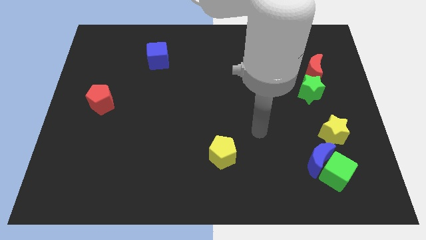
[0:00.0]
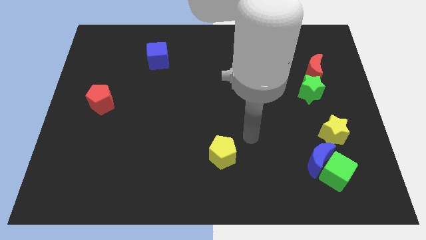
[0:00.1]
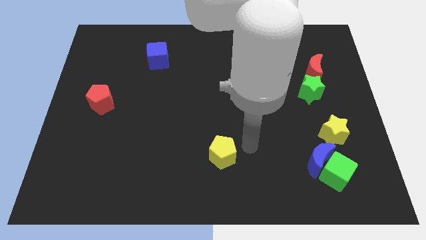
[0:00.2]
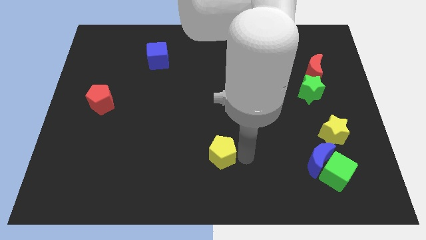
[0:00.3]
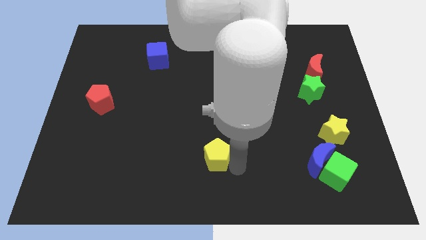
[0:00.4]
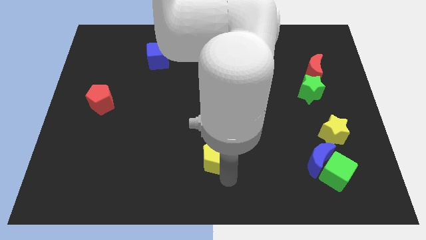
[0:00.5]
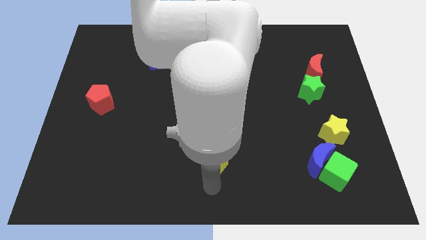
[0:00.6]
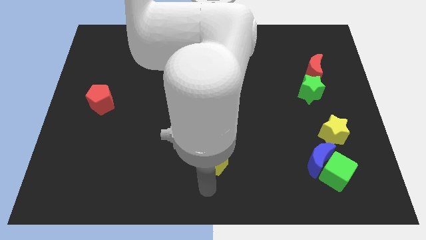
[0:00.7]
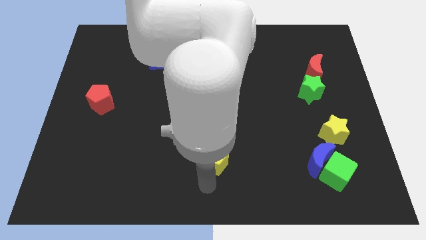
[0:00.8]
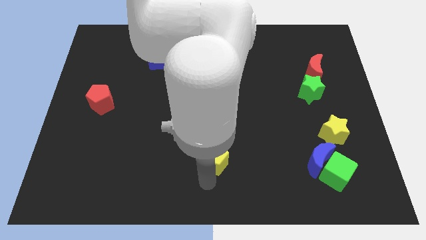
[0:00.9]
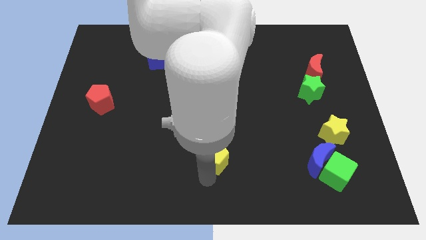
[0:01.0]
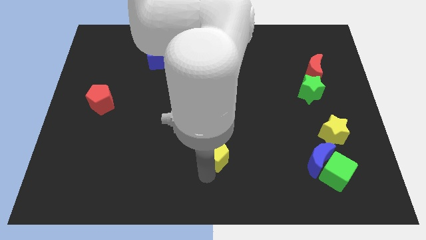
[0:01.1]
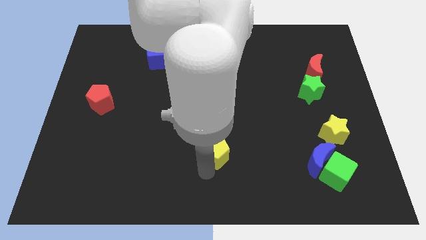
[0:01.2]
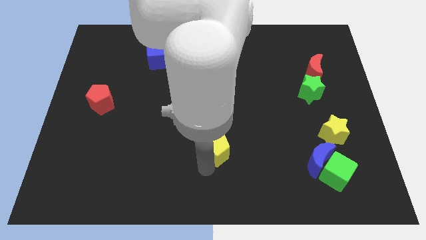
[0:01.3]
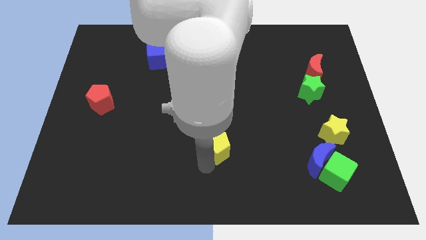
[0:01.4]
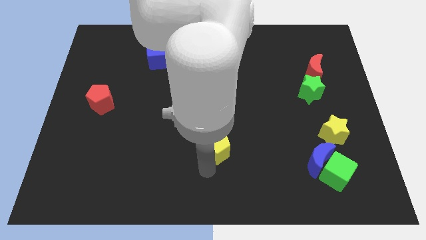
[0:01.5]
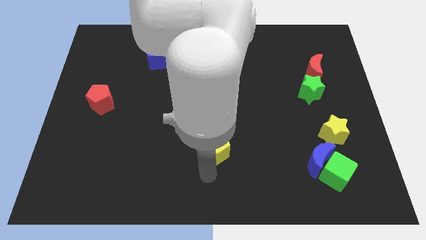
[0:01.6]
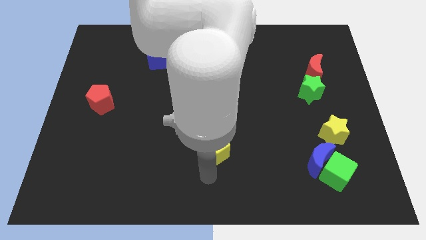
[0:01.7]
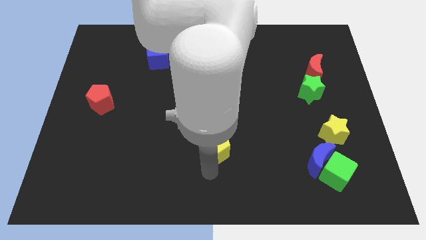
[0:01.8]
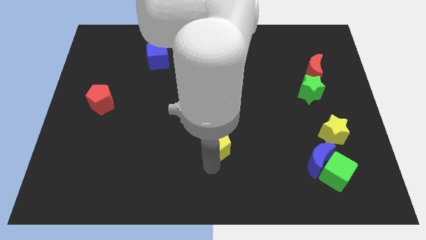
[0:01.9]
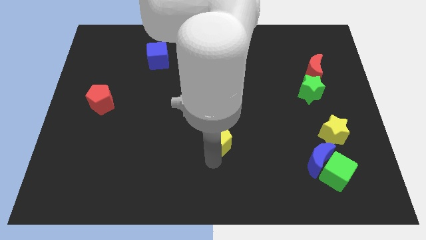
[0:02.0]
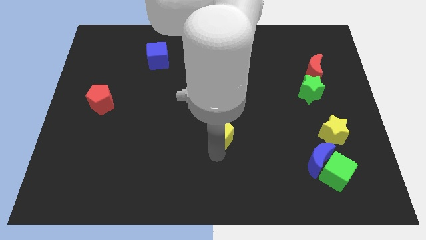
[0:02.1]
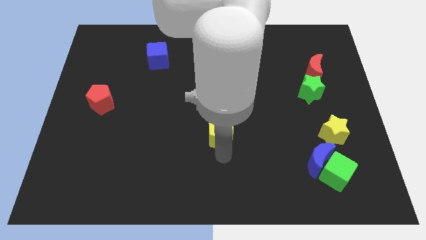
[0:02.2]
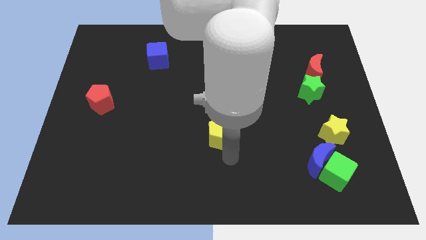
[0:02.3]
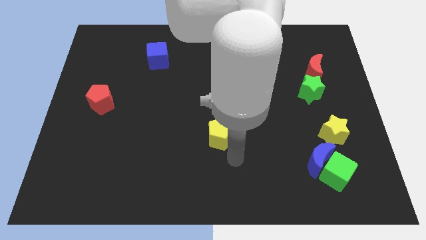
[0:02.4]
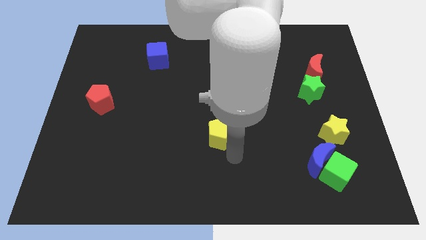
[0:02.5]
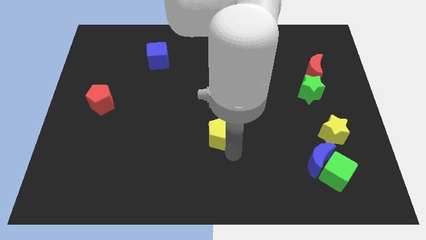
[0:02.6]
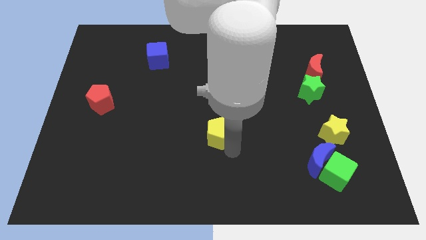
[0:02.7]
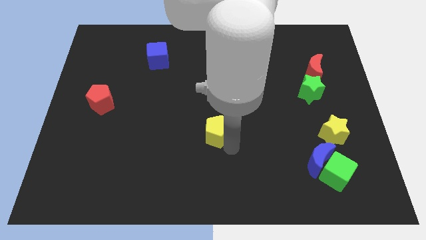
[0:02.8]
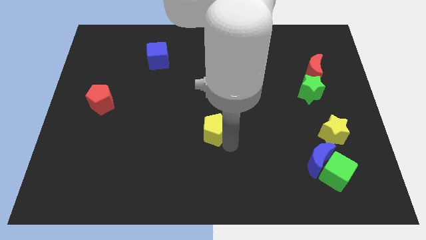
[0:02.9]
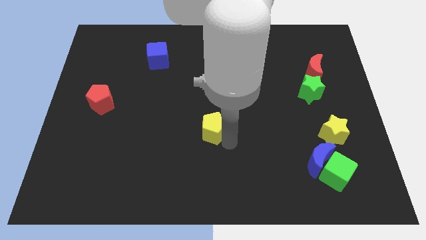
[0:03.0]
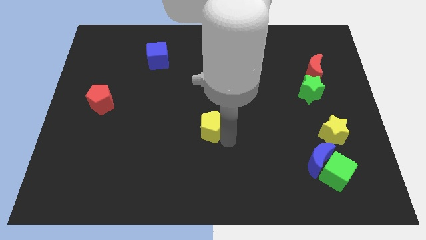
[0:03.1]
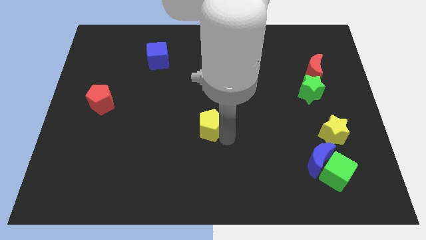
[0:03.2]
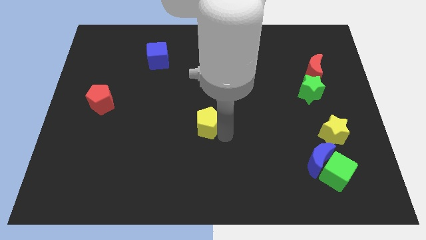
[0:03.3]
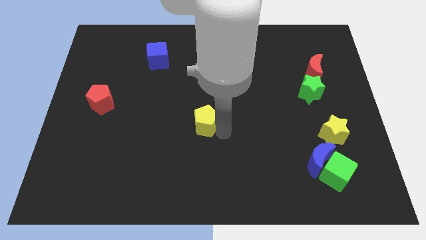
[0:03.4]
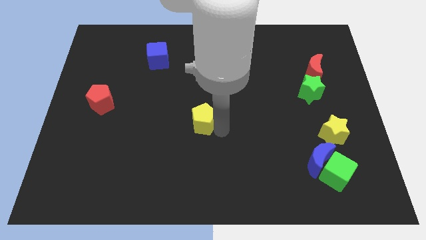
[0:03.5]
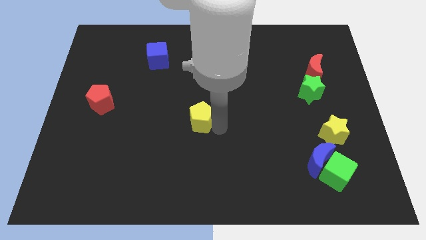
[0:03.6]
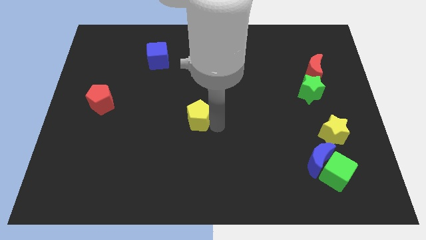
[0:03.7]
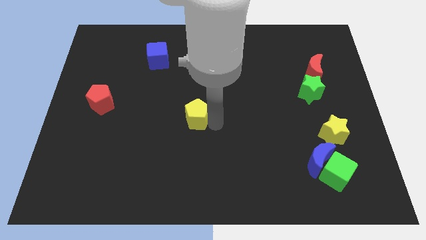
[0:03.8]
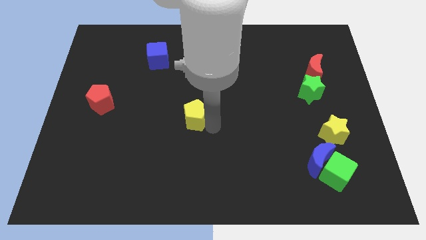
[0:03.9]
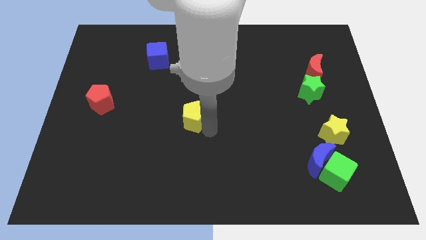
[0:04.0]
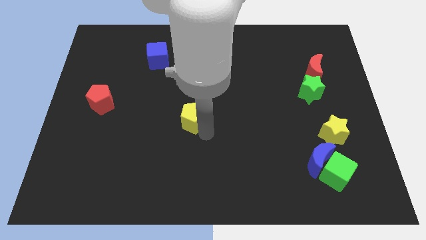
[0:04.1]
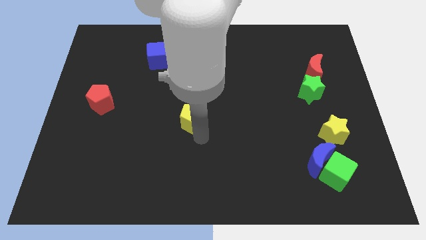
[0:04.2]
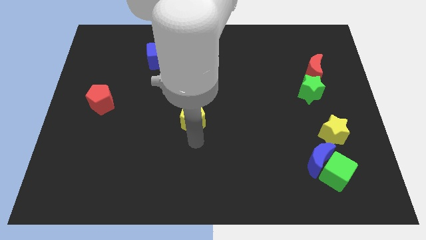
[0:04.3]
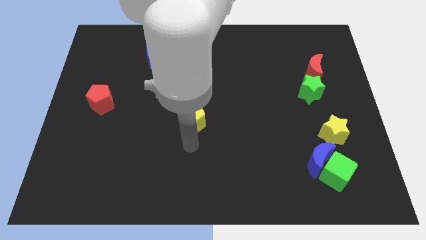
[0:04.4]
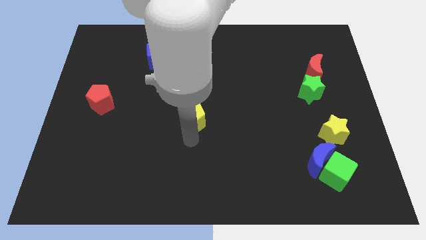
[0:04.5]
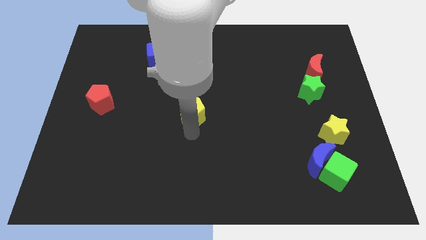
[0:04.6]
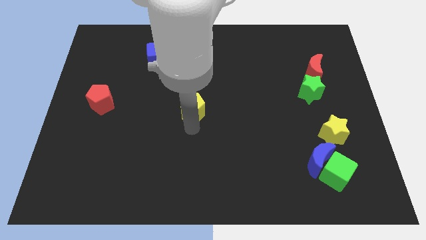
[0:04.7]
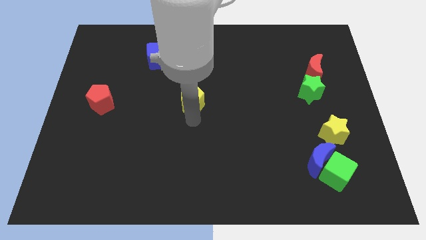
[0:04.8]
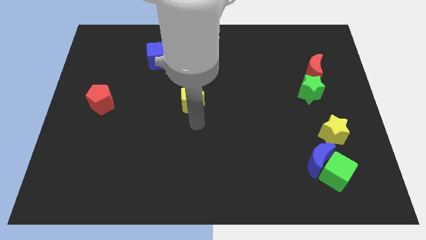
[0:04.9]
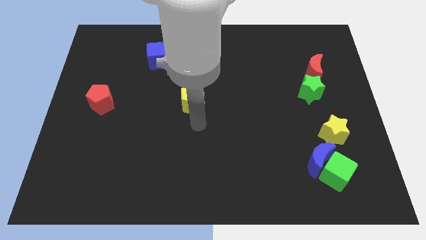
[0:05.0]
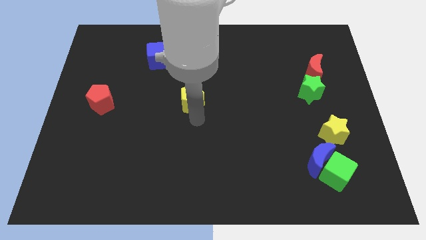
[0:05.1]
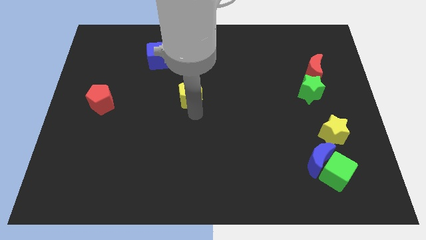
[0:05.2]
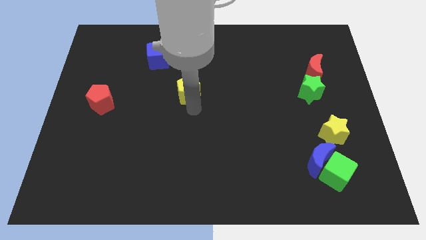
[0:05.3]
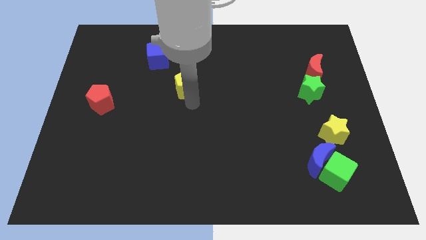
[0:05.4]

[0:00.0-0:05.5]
slide the yellow pentagon diagonally down and to the right of the blue cube

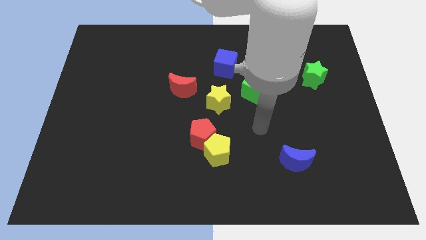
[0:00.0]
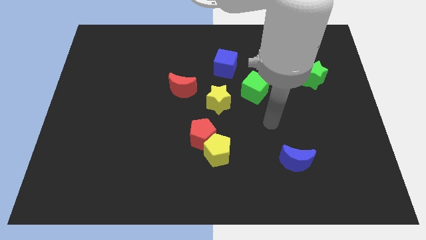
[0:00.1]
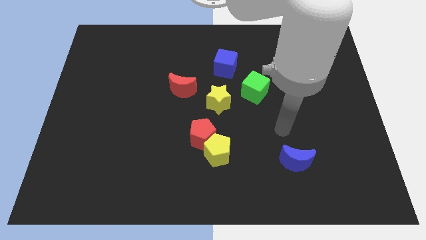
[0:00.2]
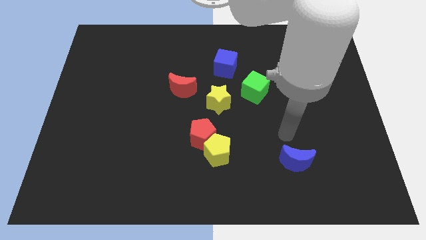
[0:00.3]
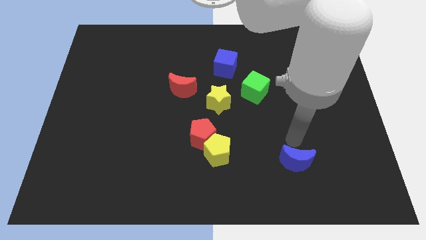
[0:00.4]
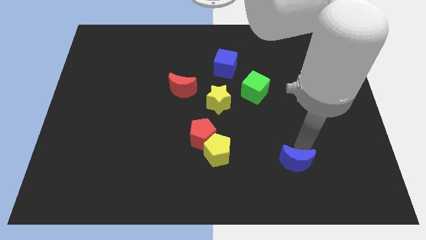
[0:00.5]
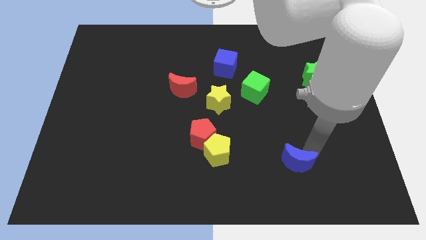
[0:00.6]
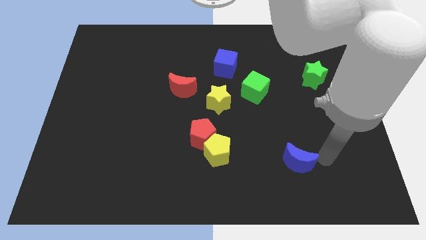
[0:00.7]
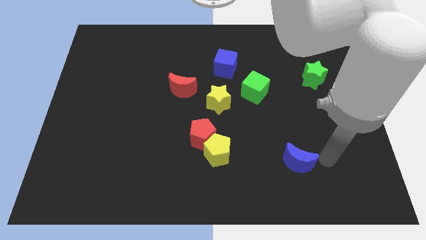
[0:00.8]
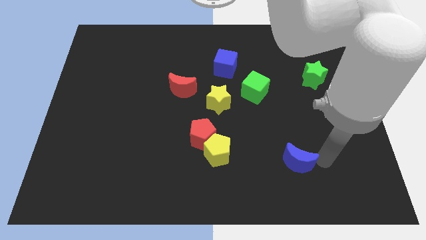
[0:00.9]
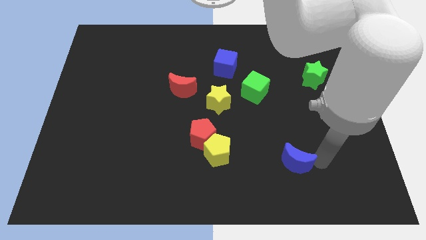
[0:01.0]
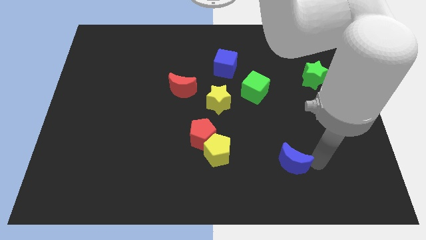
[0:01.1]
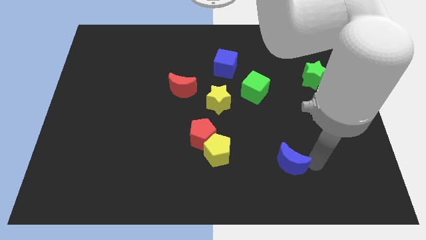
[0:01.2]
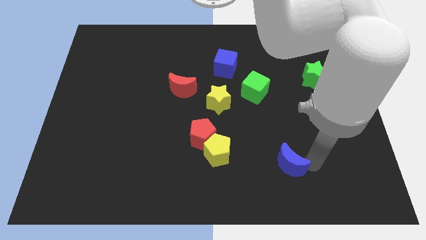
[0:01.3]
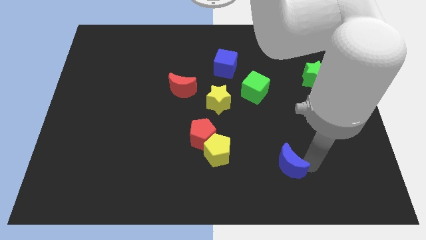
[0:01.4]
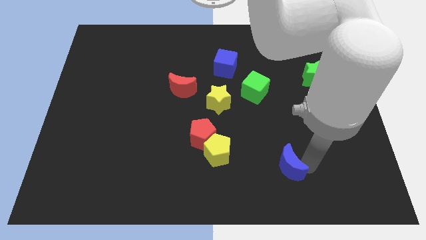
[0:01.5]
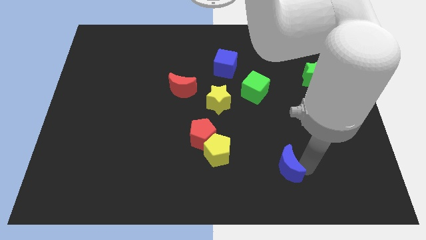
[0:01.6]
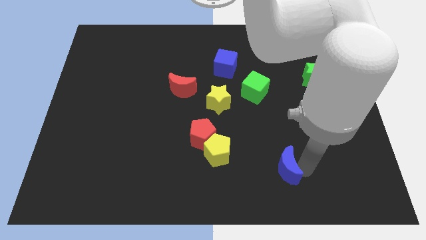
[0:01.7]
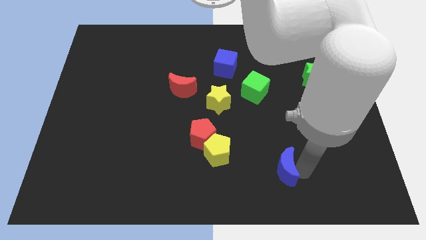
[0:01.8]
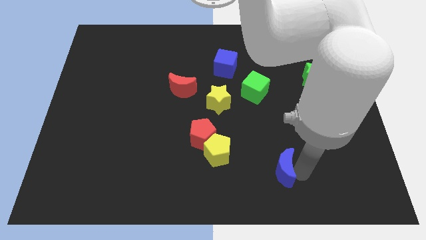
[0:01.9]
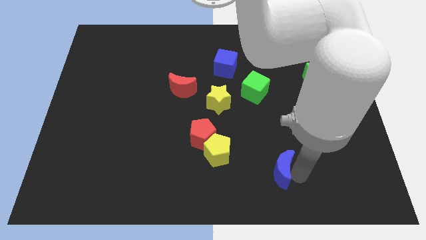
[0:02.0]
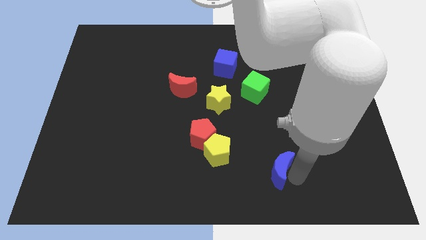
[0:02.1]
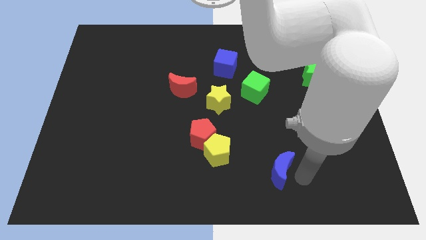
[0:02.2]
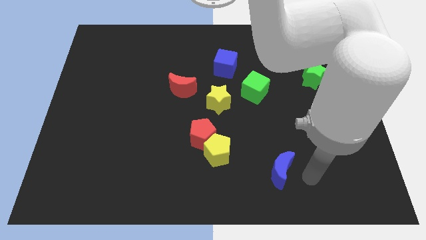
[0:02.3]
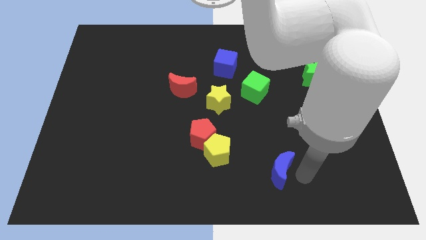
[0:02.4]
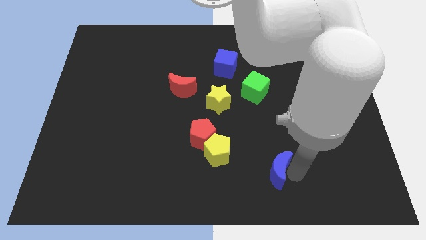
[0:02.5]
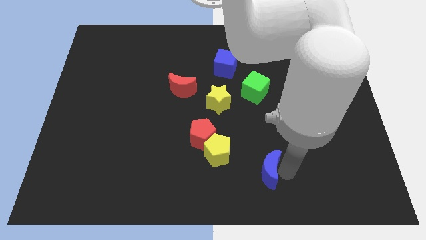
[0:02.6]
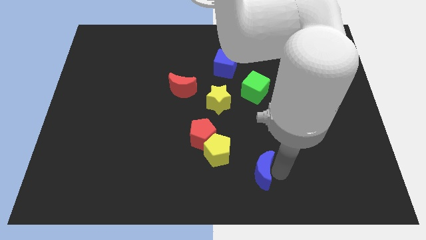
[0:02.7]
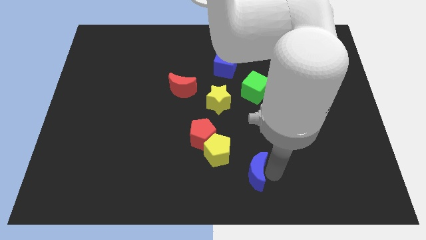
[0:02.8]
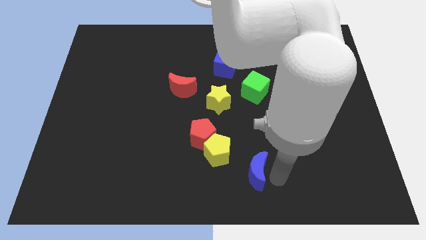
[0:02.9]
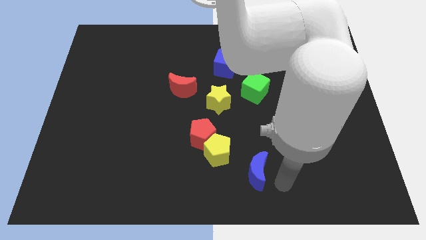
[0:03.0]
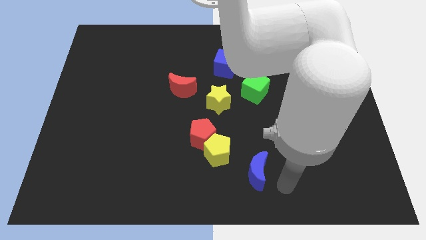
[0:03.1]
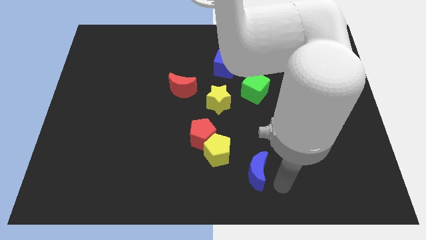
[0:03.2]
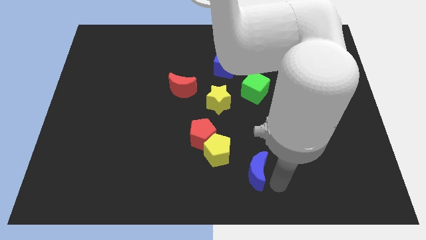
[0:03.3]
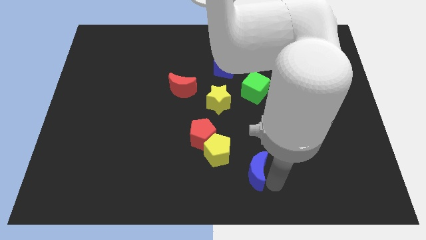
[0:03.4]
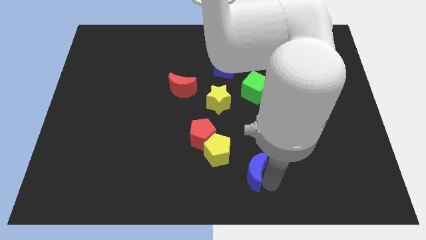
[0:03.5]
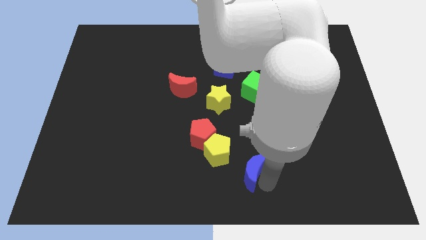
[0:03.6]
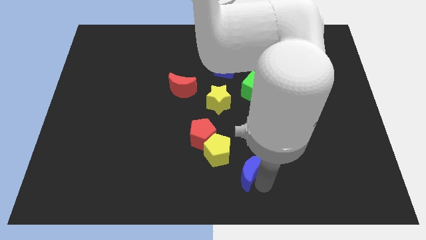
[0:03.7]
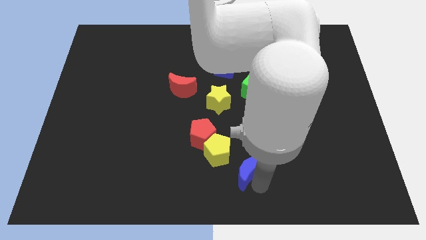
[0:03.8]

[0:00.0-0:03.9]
put the blue moon to the bottom right side of the red pentagon
